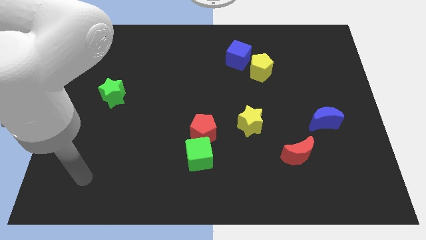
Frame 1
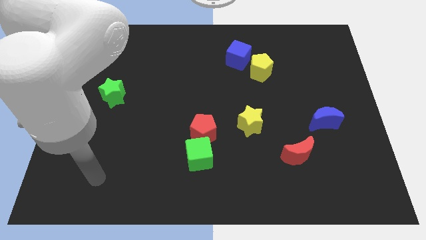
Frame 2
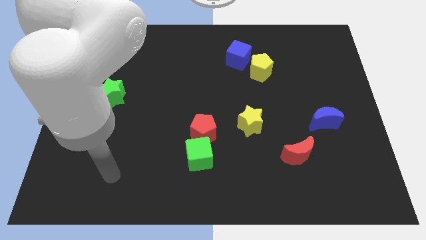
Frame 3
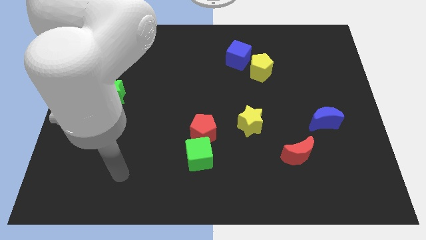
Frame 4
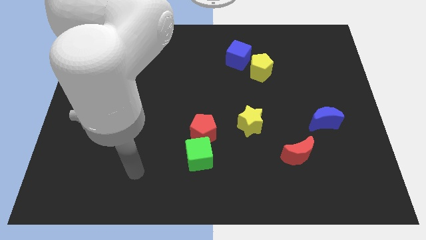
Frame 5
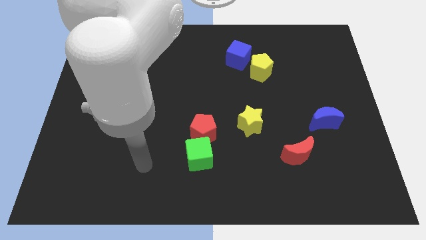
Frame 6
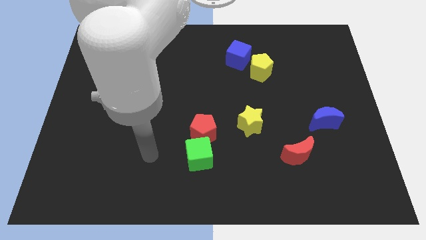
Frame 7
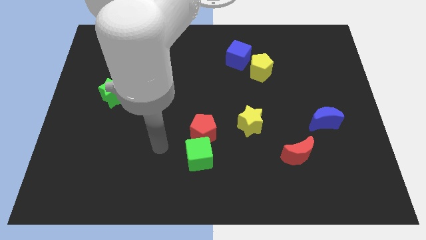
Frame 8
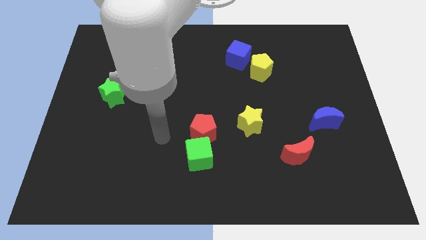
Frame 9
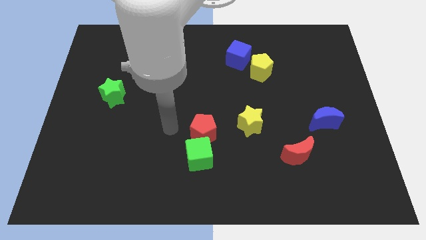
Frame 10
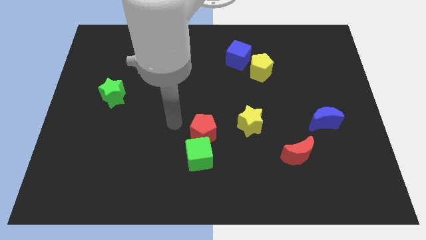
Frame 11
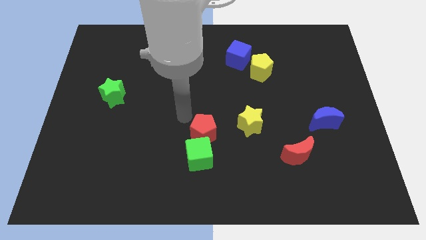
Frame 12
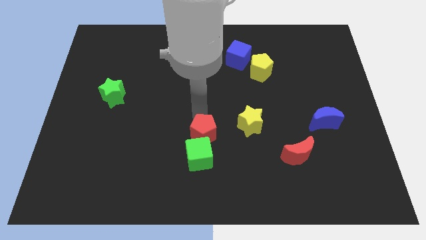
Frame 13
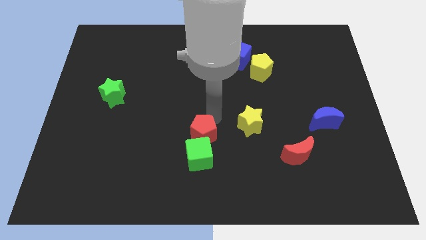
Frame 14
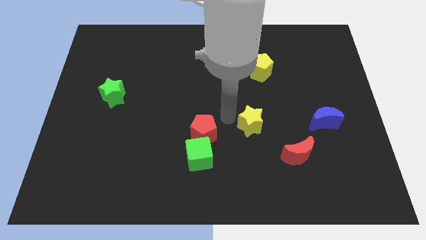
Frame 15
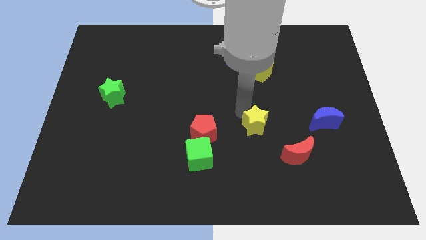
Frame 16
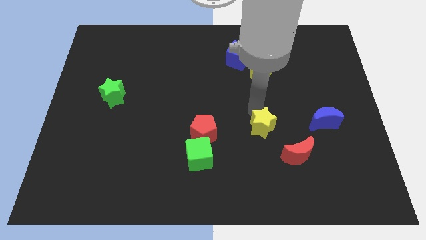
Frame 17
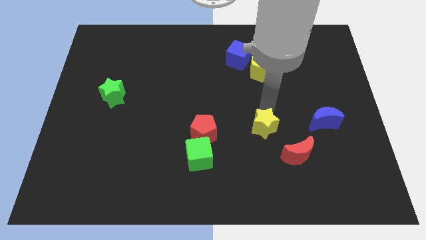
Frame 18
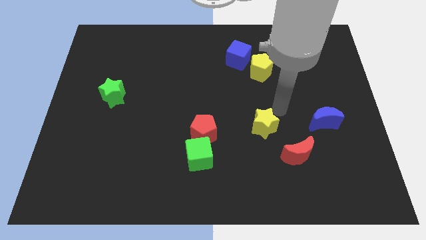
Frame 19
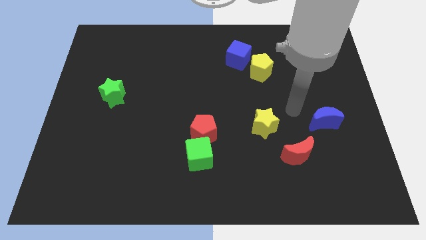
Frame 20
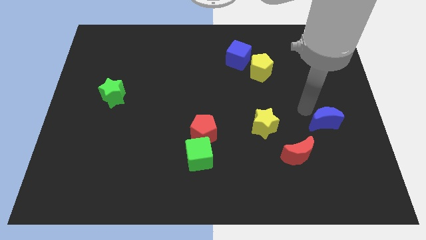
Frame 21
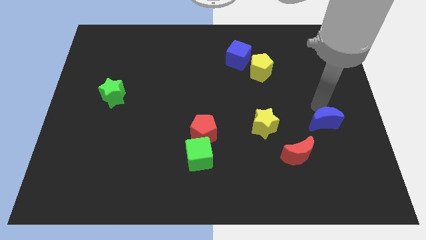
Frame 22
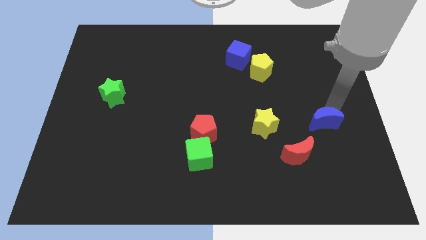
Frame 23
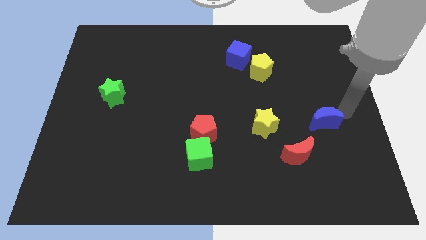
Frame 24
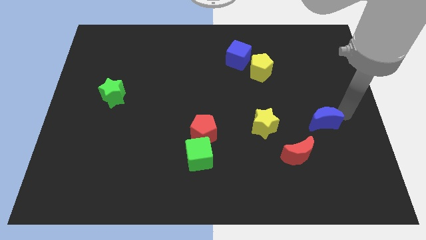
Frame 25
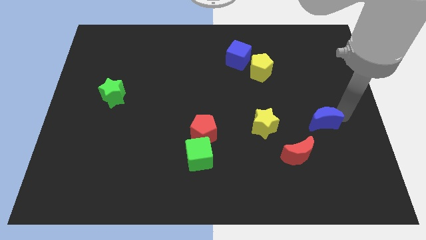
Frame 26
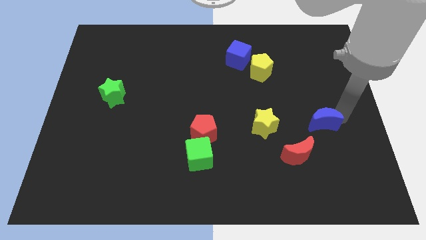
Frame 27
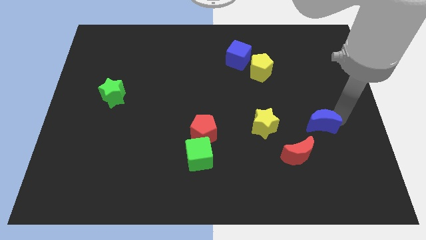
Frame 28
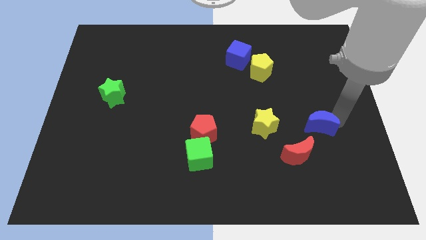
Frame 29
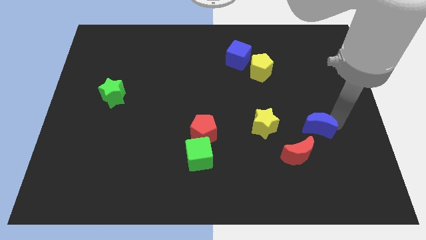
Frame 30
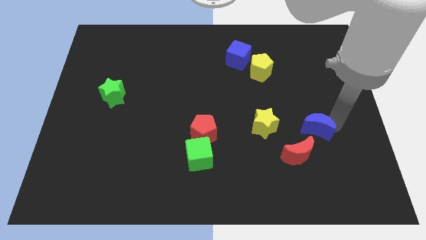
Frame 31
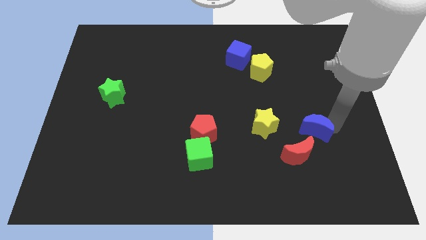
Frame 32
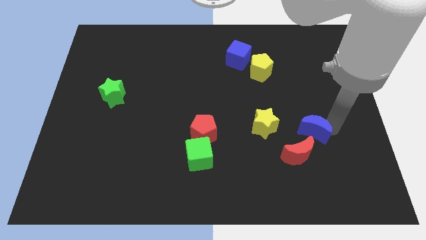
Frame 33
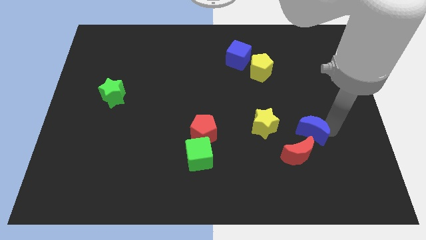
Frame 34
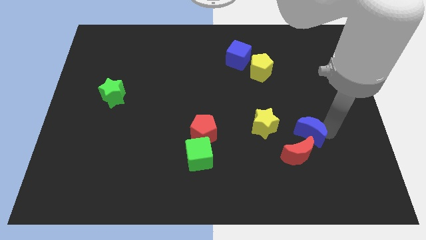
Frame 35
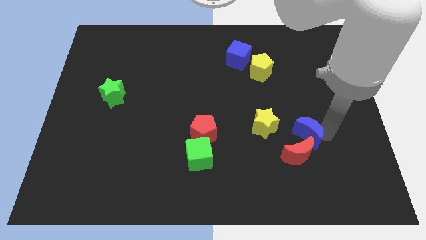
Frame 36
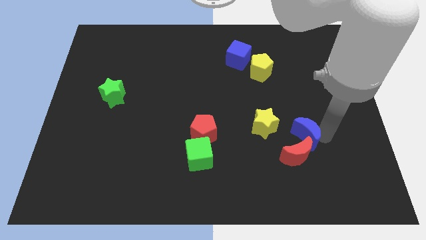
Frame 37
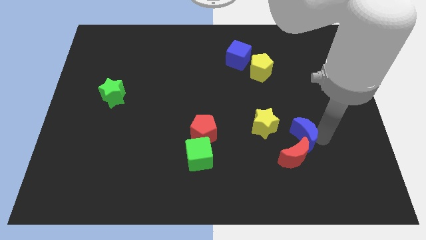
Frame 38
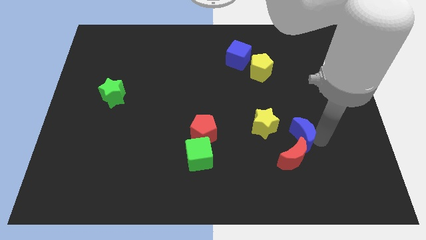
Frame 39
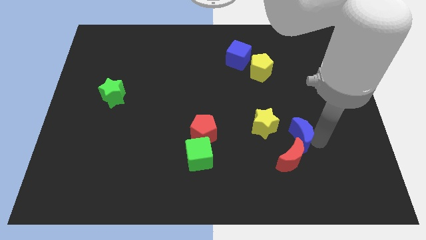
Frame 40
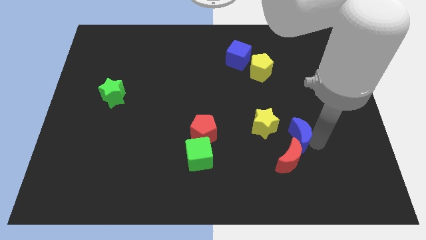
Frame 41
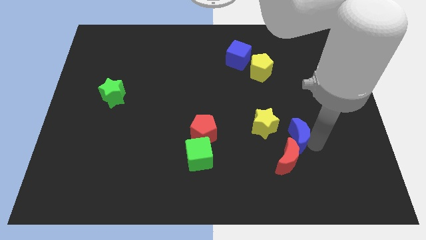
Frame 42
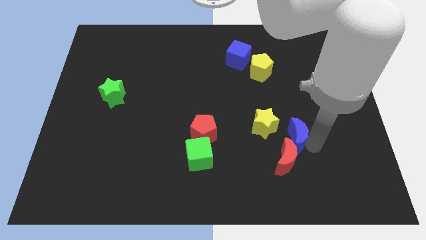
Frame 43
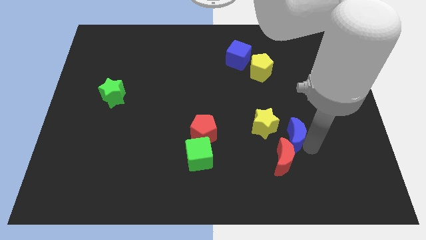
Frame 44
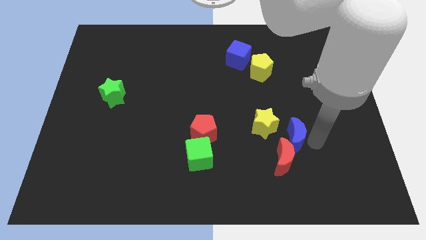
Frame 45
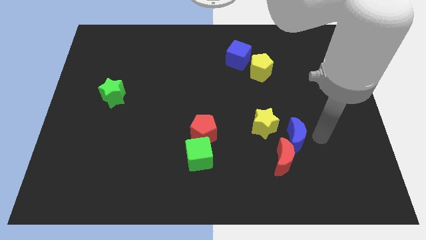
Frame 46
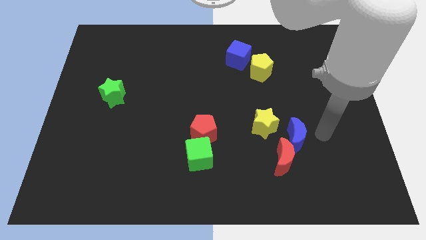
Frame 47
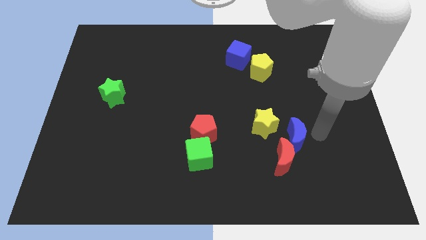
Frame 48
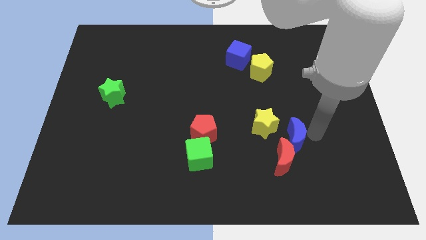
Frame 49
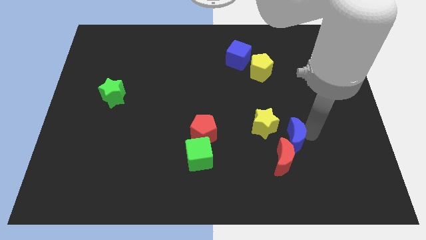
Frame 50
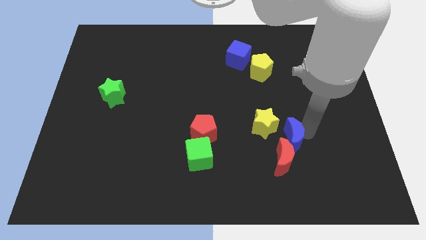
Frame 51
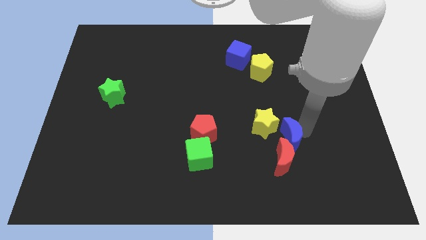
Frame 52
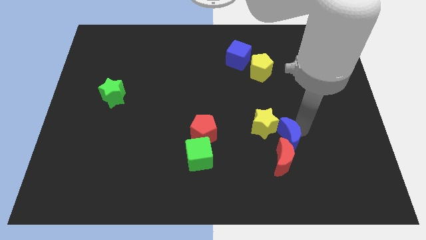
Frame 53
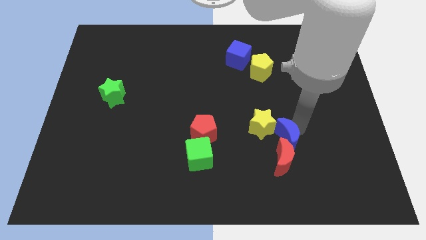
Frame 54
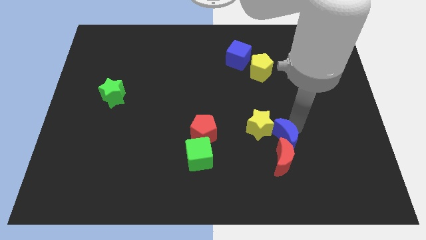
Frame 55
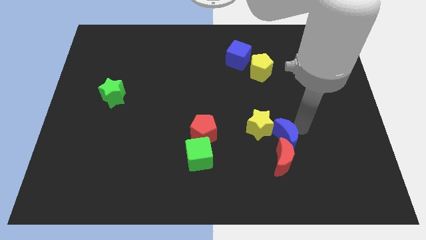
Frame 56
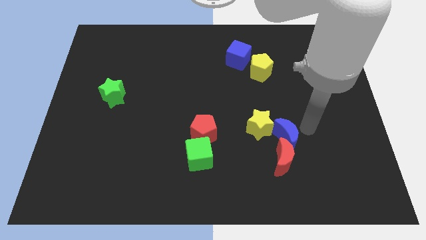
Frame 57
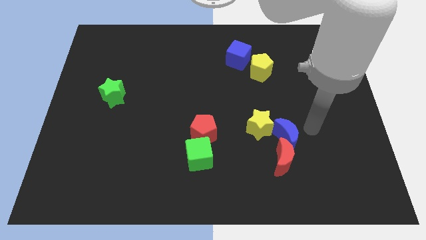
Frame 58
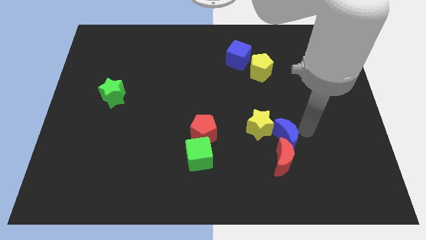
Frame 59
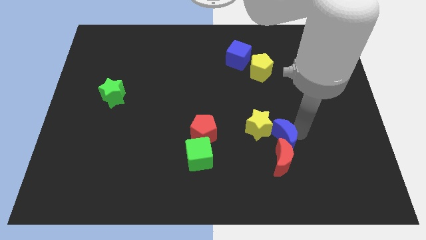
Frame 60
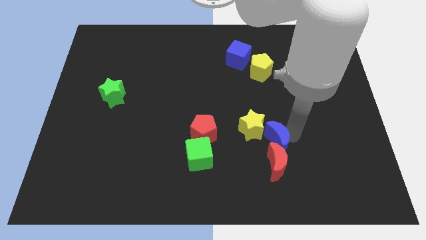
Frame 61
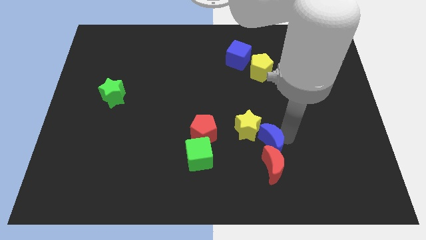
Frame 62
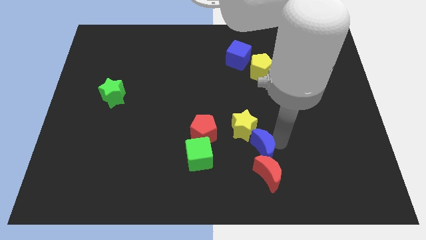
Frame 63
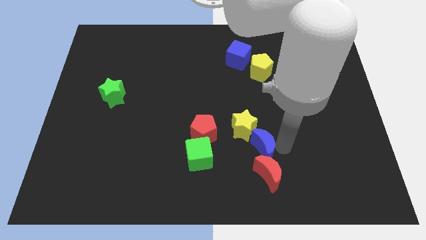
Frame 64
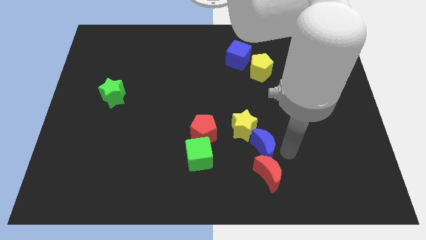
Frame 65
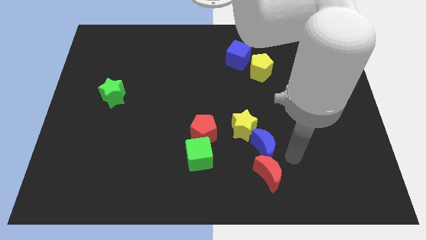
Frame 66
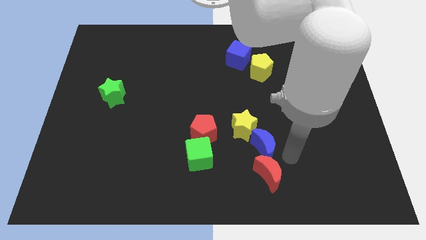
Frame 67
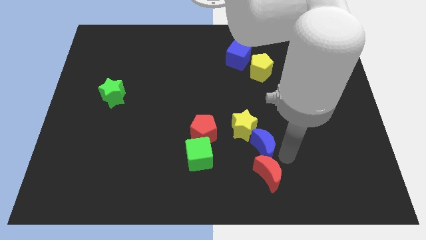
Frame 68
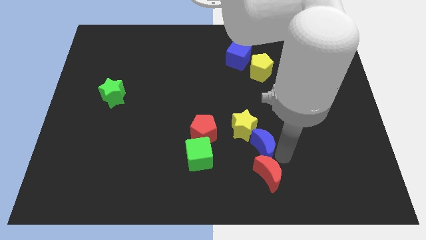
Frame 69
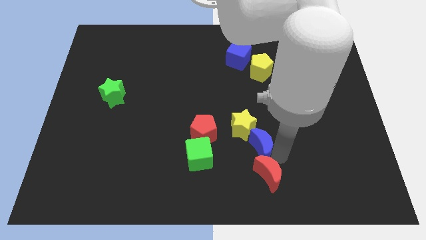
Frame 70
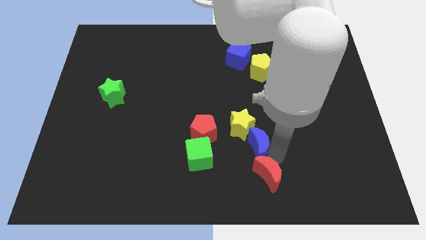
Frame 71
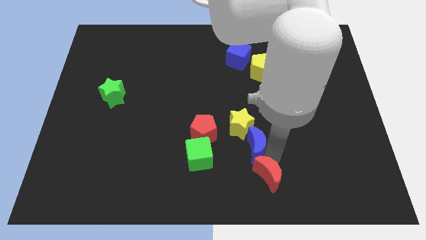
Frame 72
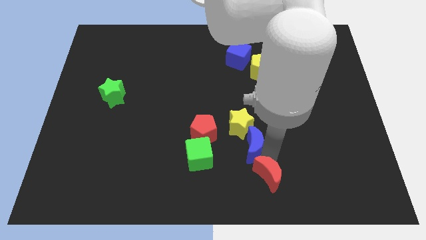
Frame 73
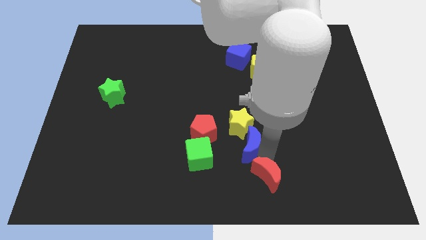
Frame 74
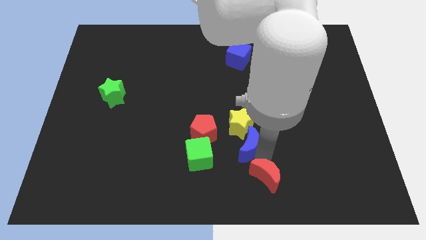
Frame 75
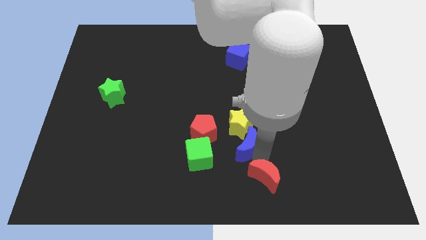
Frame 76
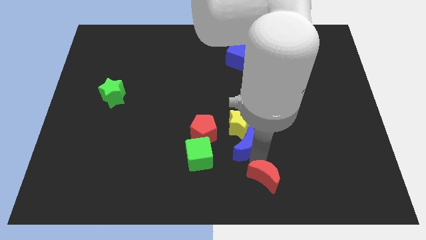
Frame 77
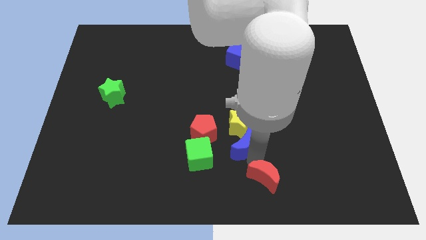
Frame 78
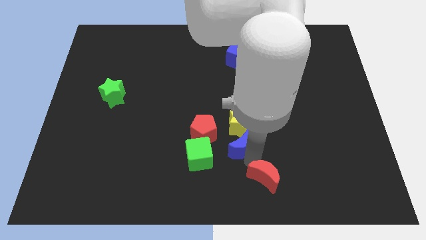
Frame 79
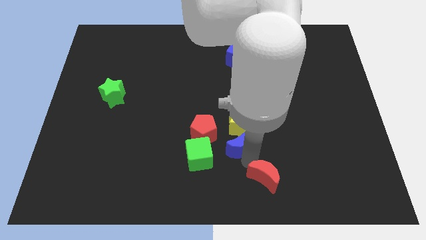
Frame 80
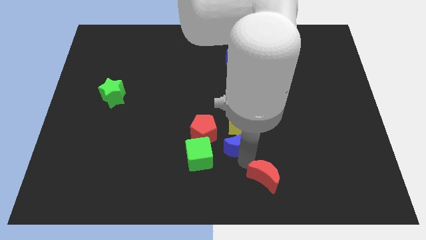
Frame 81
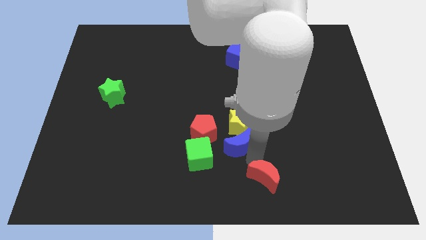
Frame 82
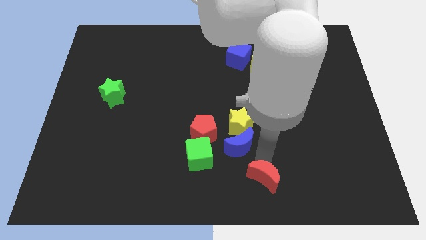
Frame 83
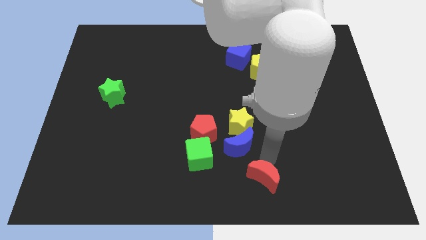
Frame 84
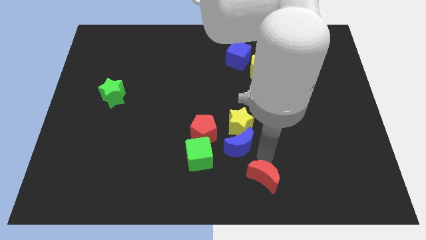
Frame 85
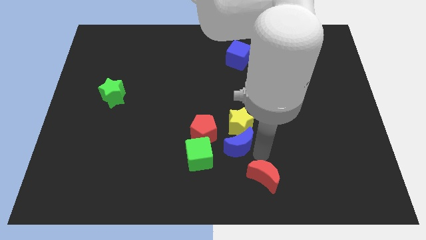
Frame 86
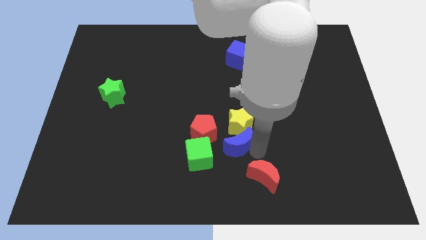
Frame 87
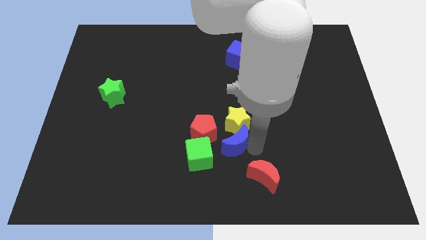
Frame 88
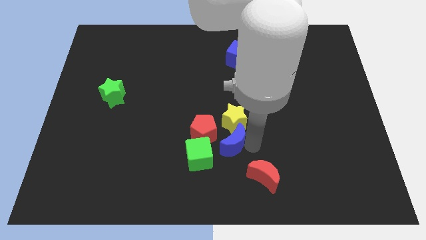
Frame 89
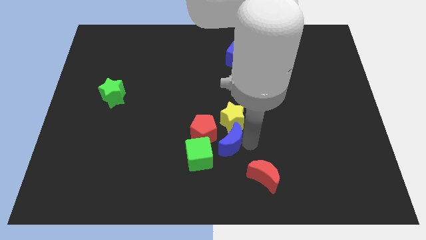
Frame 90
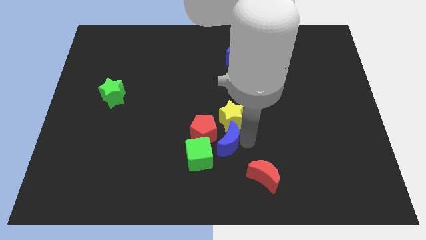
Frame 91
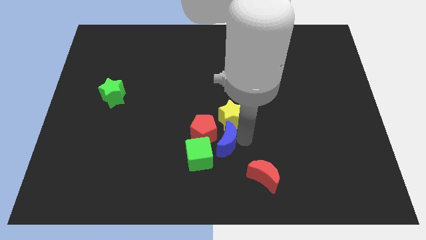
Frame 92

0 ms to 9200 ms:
push the blue moon next to the red pentagon
